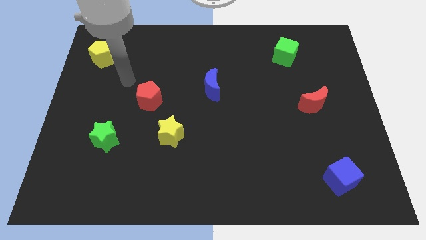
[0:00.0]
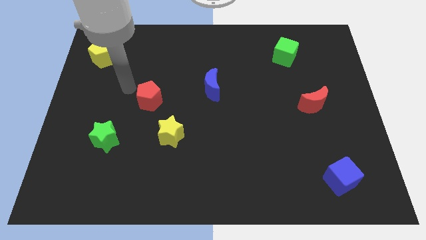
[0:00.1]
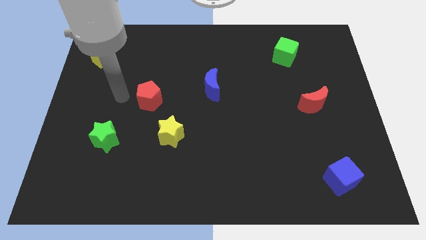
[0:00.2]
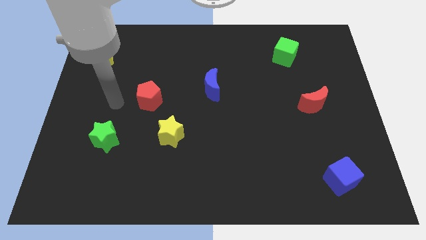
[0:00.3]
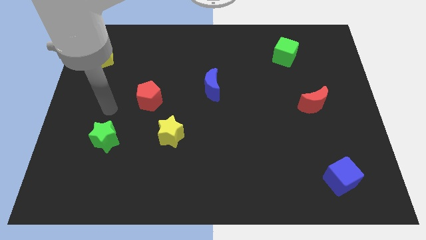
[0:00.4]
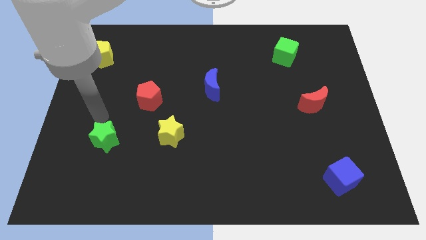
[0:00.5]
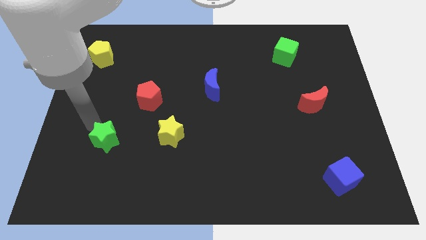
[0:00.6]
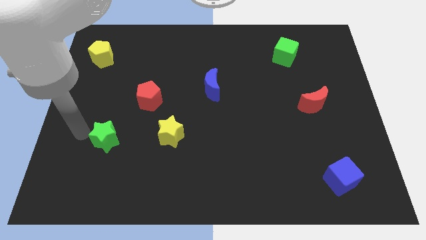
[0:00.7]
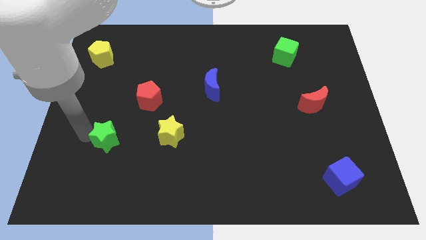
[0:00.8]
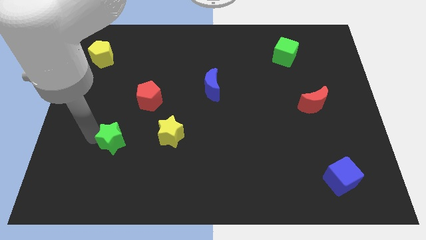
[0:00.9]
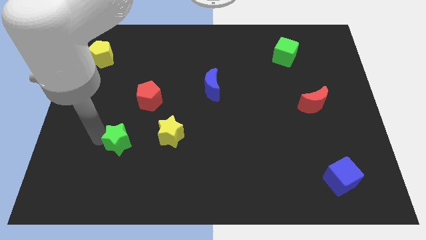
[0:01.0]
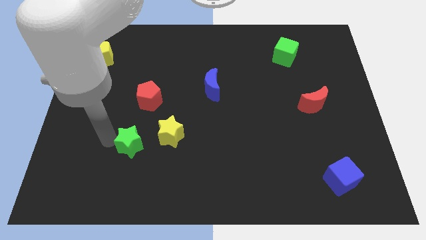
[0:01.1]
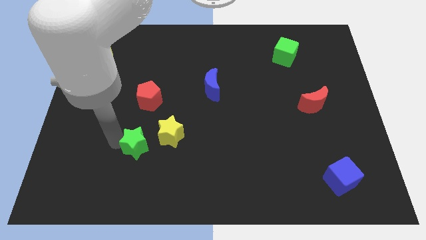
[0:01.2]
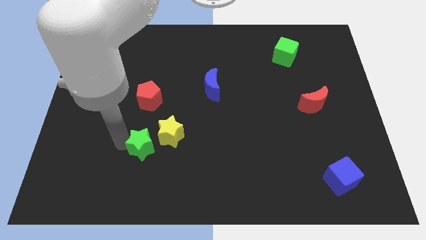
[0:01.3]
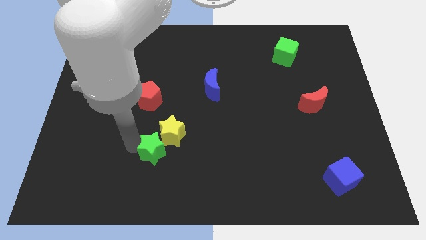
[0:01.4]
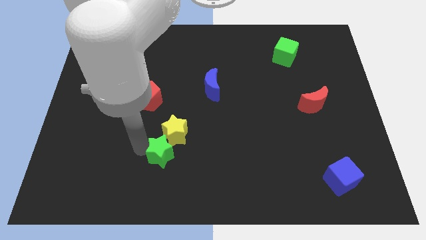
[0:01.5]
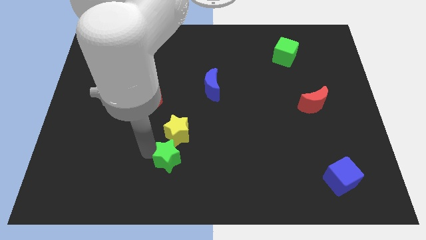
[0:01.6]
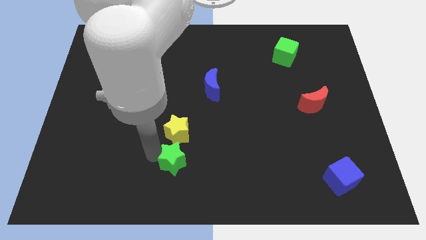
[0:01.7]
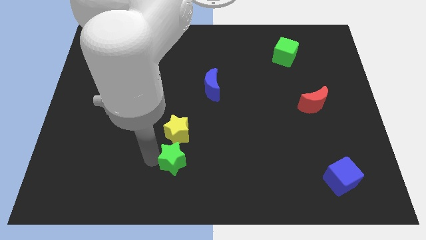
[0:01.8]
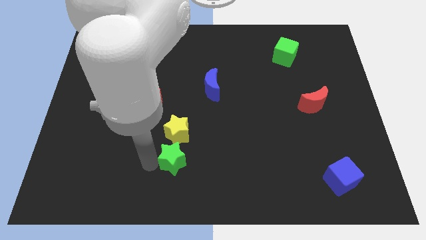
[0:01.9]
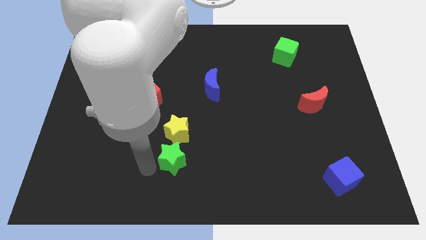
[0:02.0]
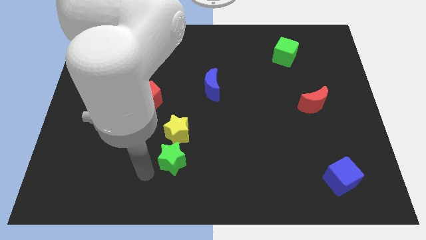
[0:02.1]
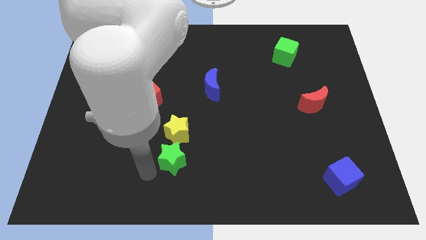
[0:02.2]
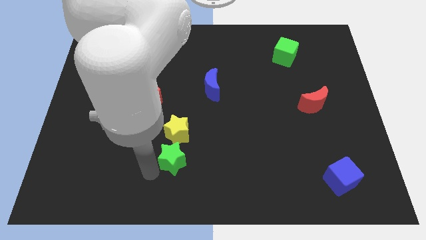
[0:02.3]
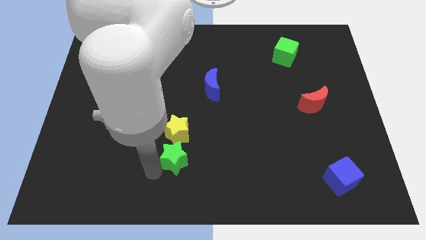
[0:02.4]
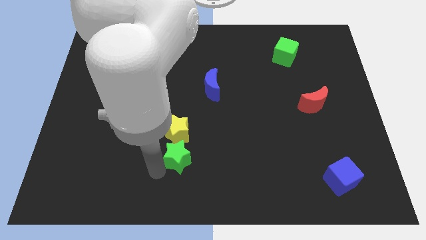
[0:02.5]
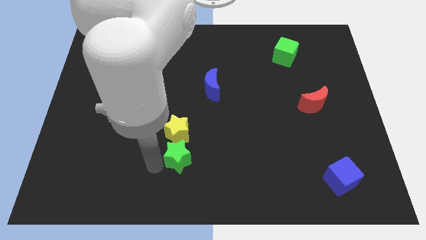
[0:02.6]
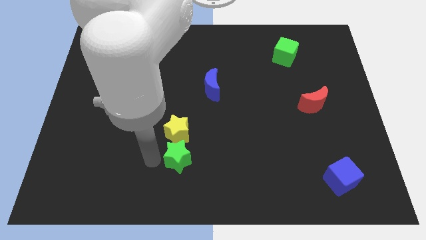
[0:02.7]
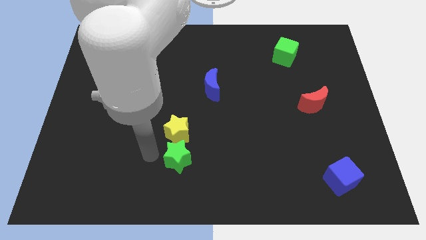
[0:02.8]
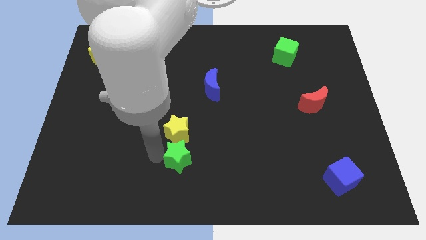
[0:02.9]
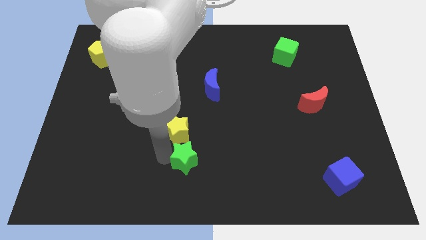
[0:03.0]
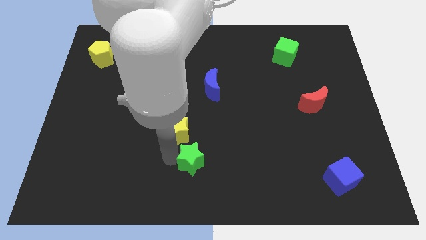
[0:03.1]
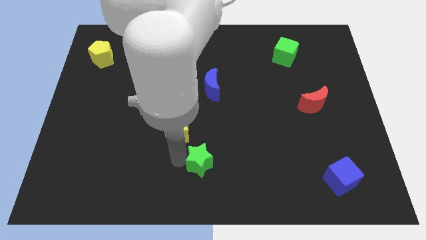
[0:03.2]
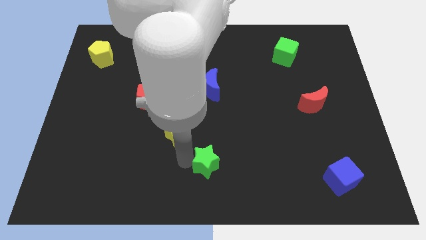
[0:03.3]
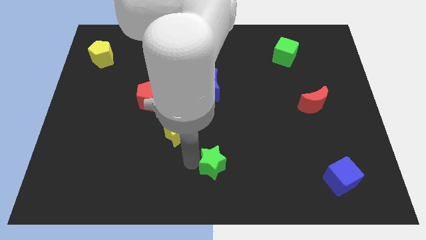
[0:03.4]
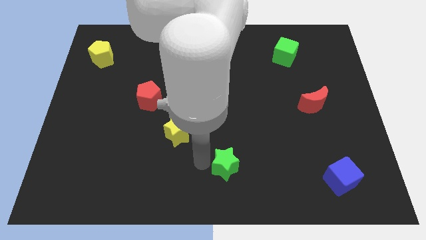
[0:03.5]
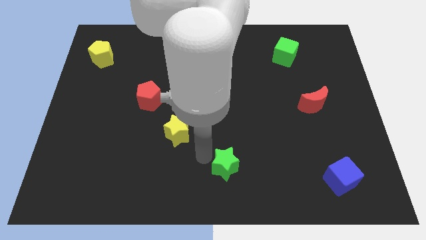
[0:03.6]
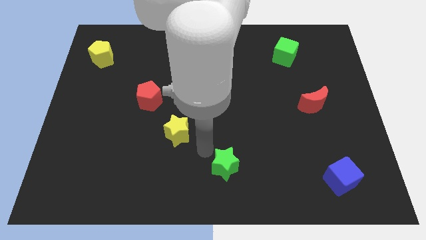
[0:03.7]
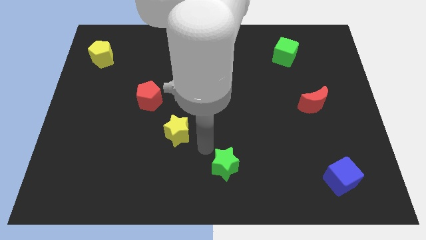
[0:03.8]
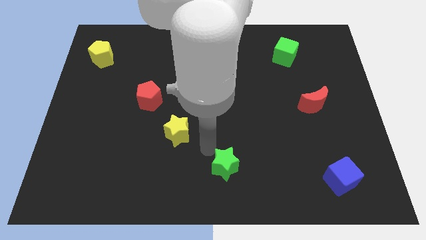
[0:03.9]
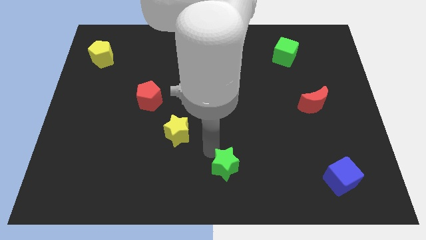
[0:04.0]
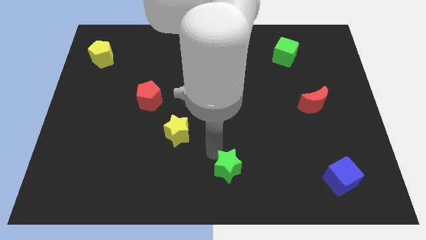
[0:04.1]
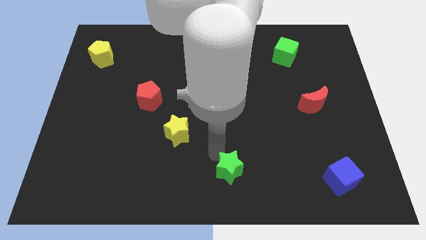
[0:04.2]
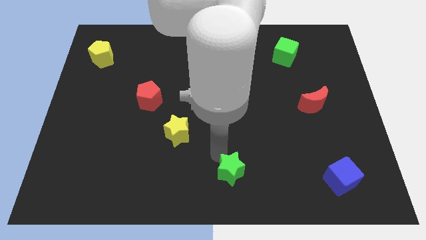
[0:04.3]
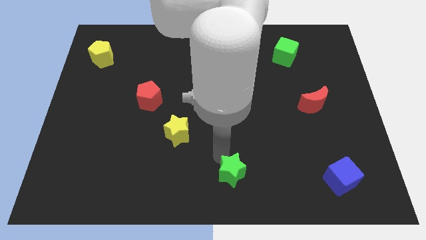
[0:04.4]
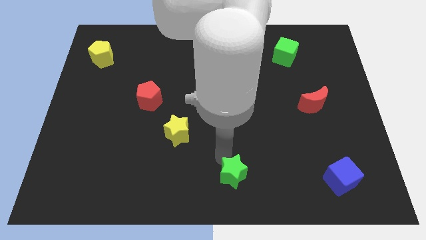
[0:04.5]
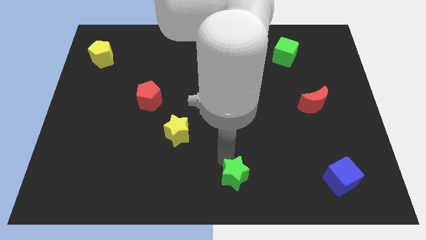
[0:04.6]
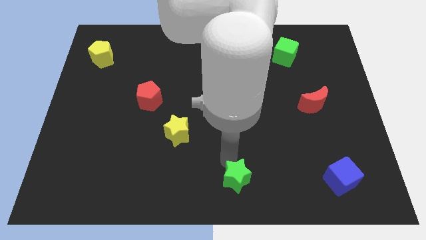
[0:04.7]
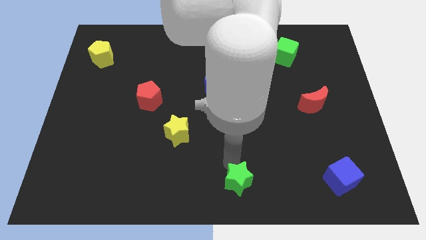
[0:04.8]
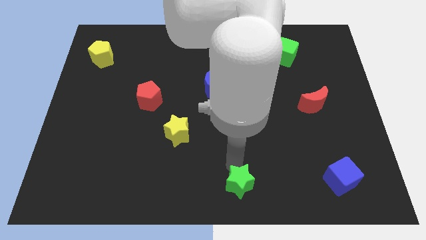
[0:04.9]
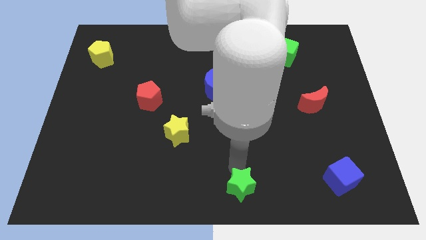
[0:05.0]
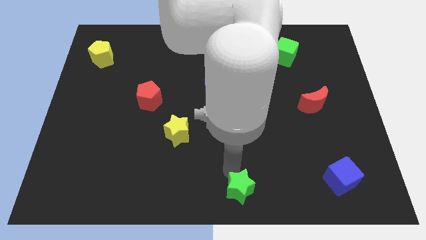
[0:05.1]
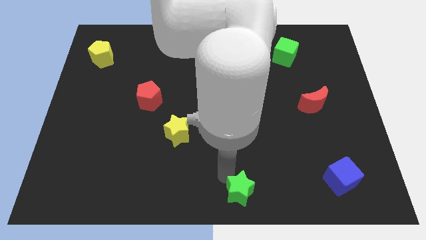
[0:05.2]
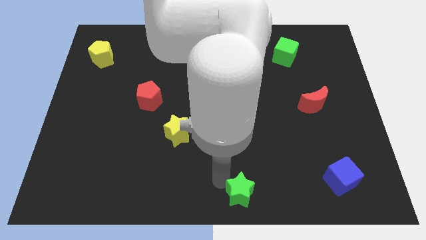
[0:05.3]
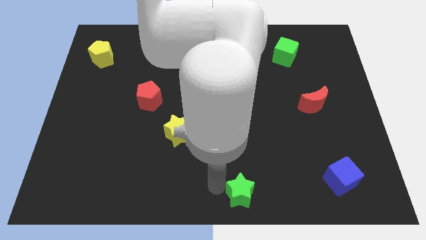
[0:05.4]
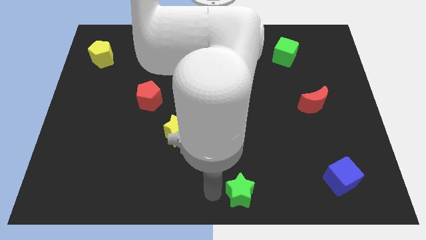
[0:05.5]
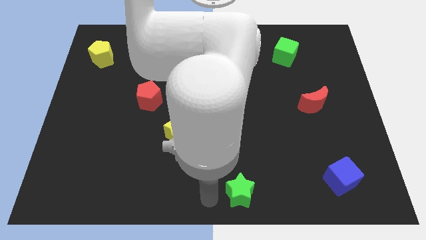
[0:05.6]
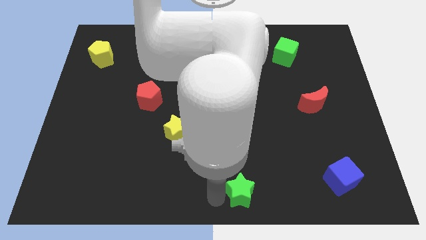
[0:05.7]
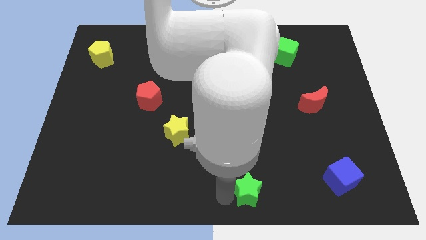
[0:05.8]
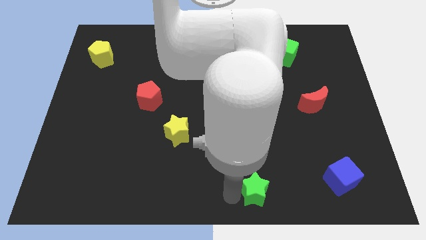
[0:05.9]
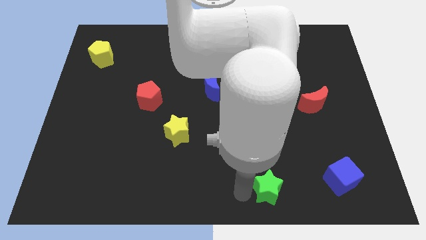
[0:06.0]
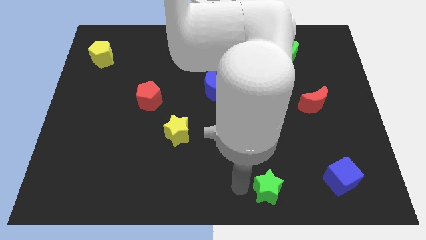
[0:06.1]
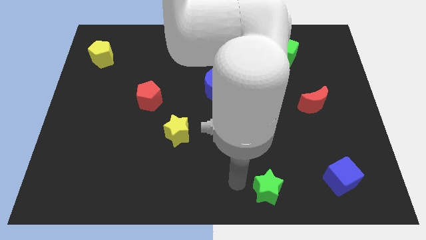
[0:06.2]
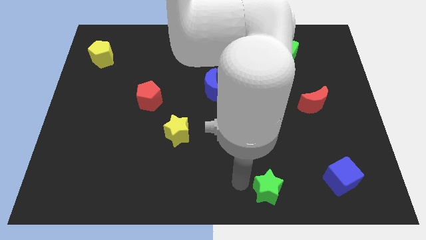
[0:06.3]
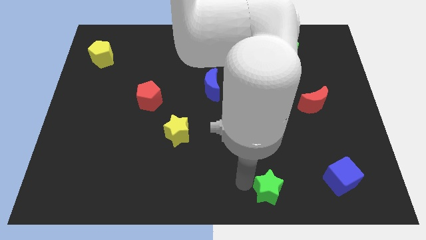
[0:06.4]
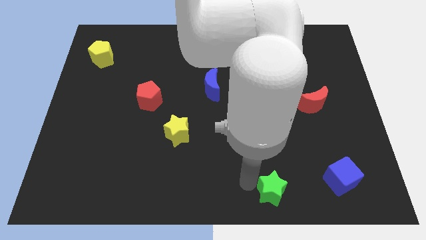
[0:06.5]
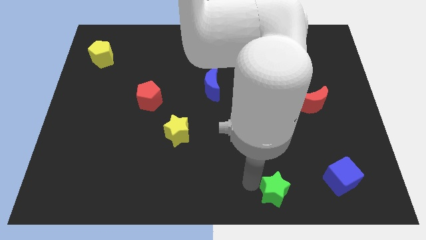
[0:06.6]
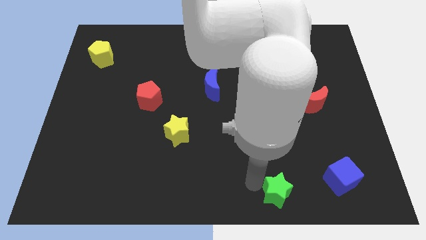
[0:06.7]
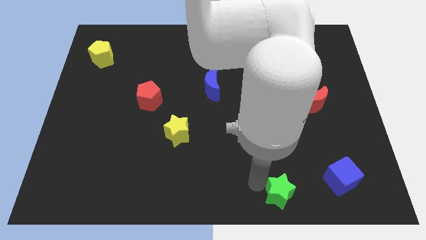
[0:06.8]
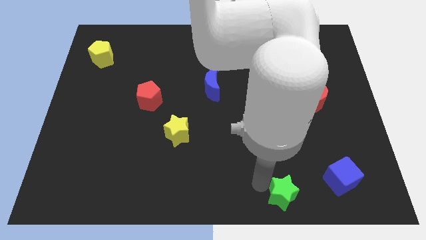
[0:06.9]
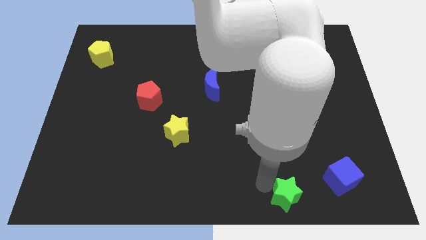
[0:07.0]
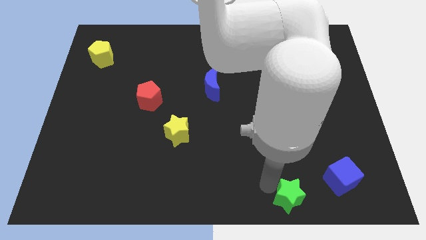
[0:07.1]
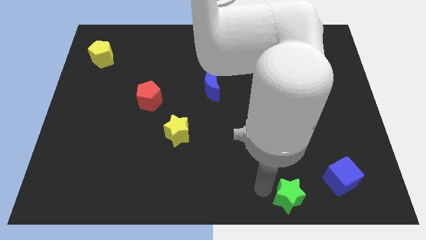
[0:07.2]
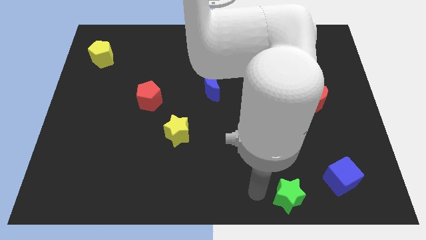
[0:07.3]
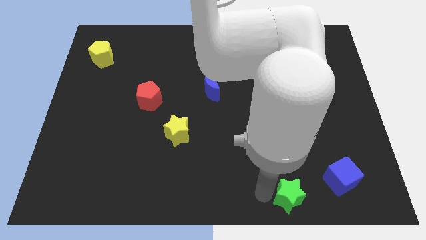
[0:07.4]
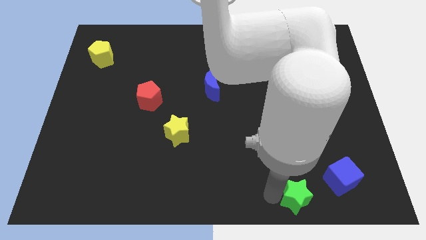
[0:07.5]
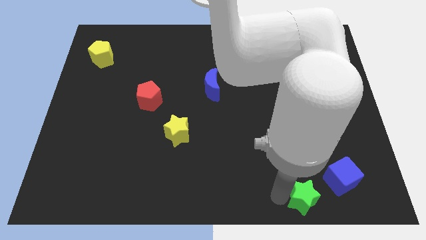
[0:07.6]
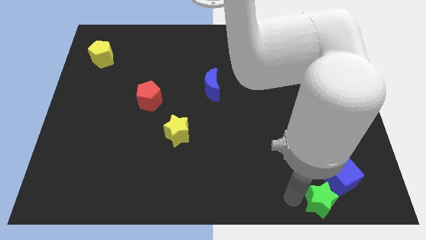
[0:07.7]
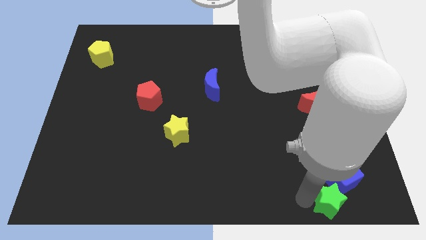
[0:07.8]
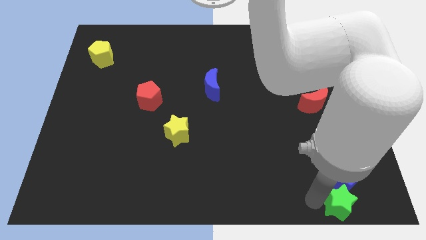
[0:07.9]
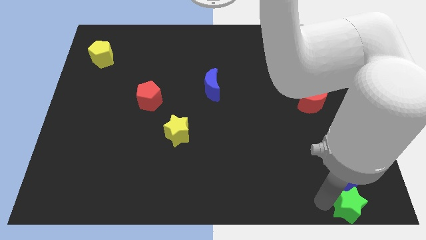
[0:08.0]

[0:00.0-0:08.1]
move the green star to the bottom right of the board
